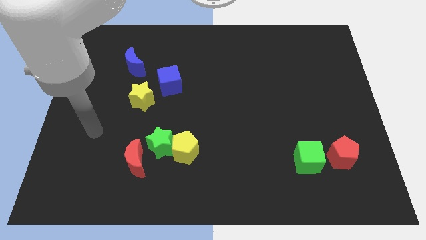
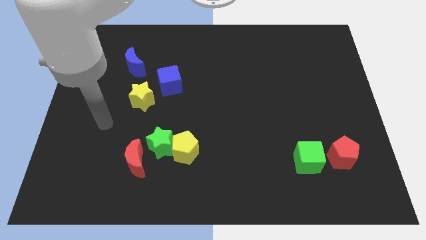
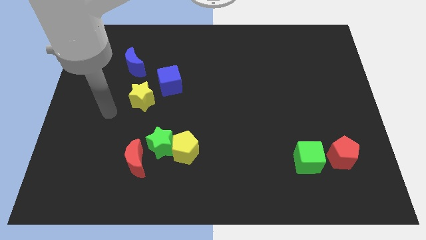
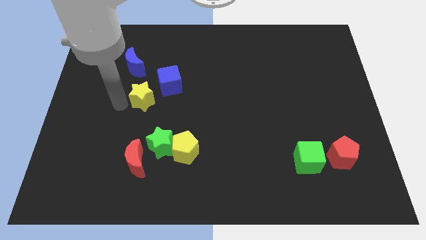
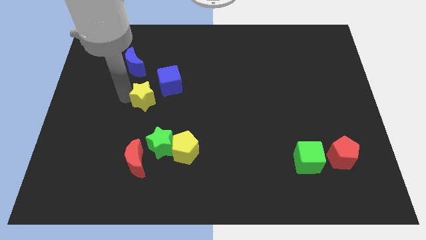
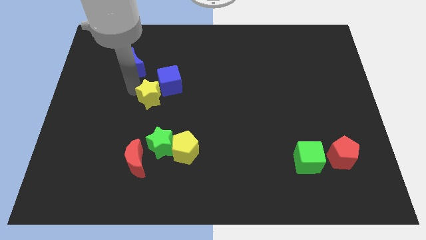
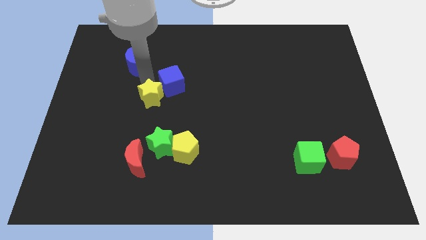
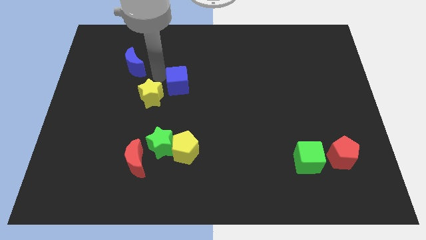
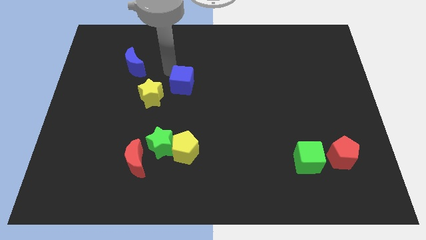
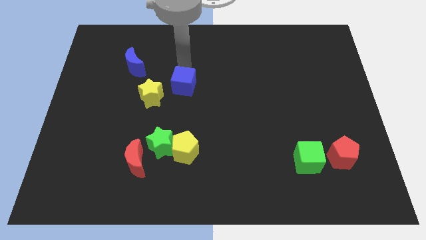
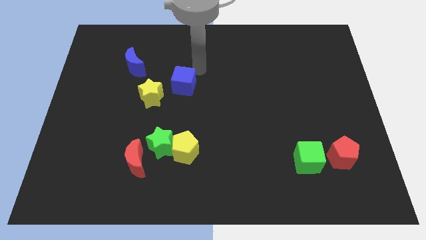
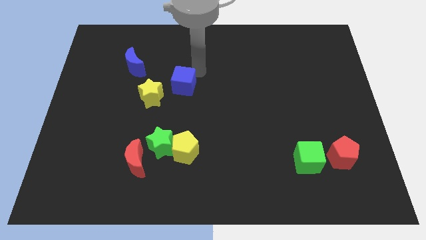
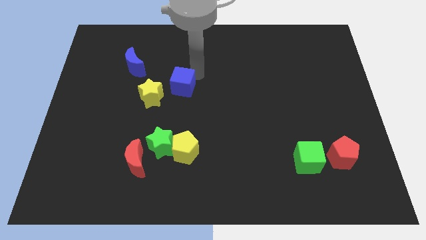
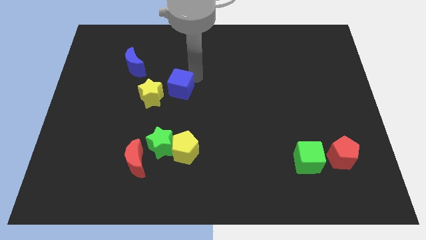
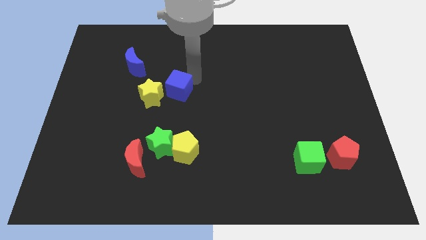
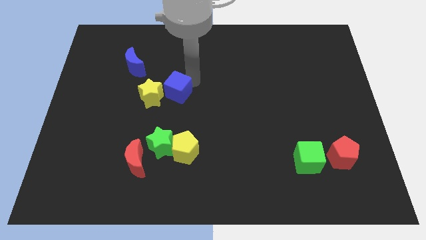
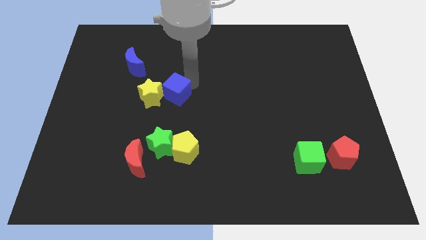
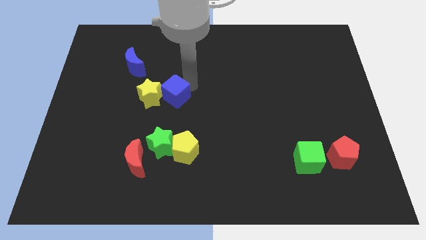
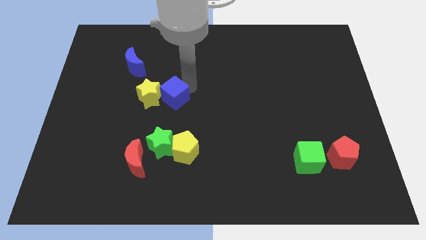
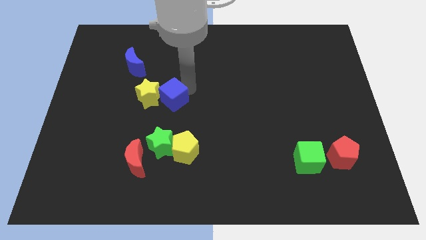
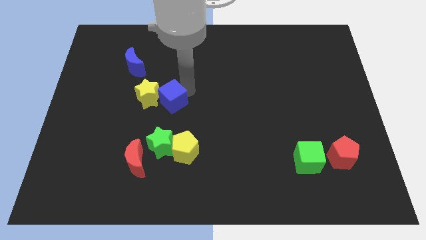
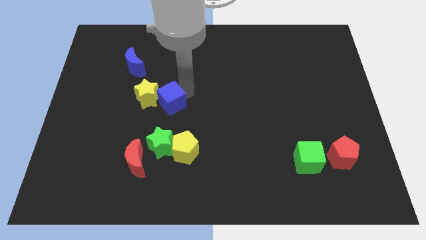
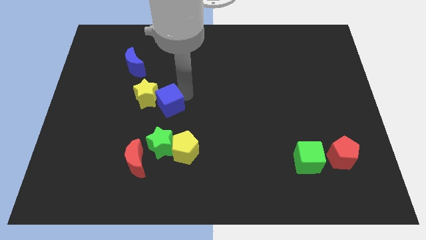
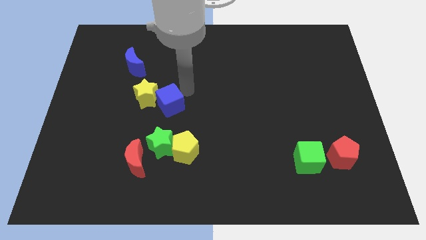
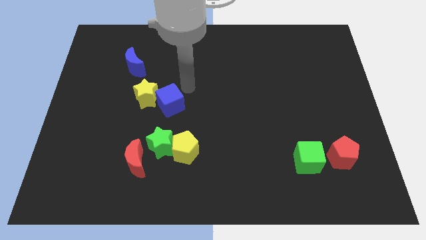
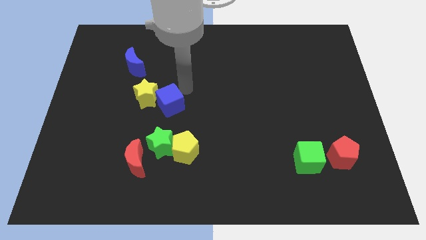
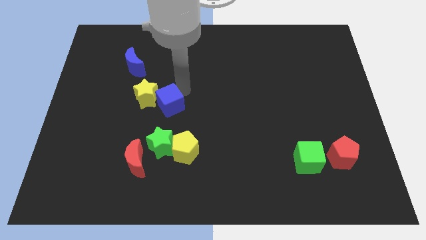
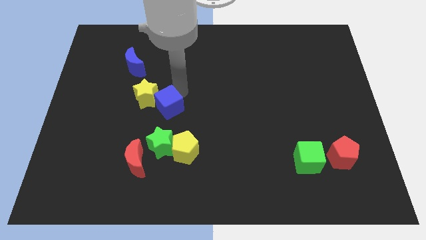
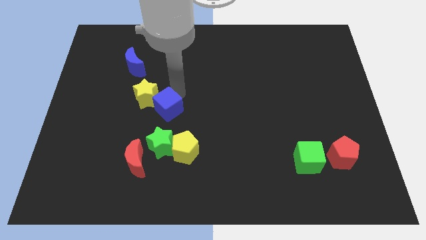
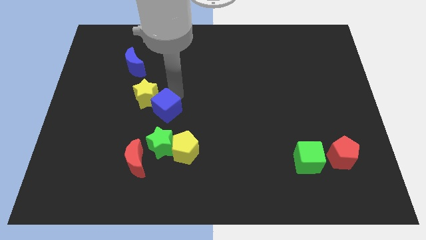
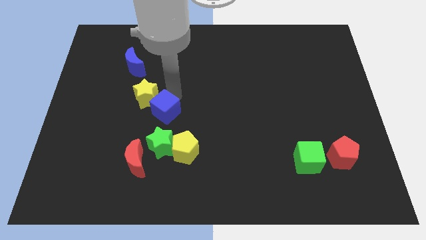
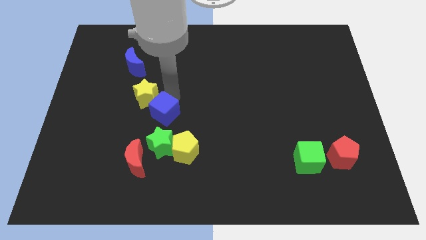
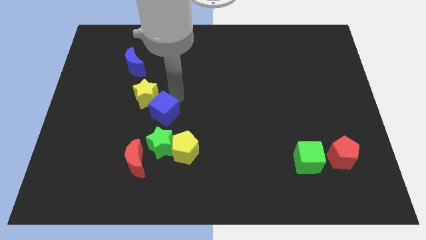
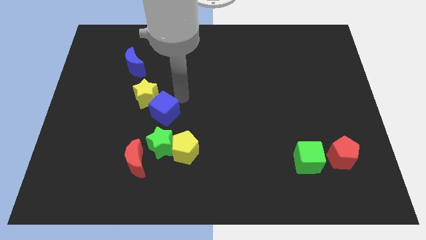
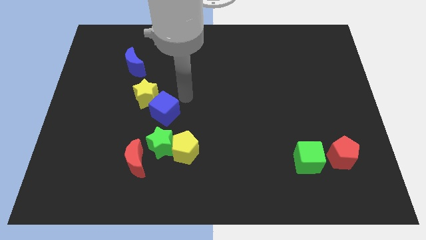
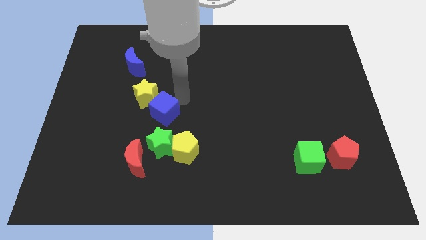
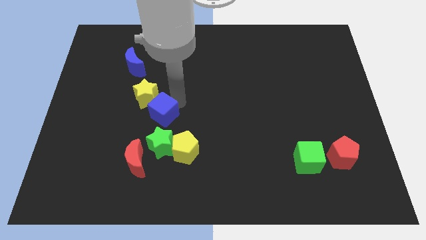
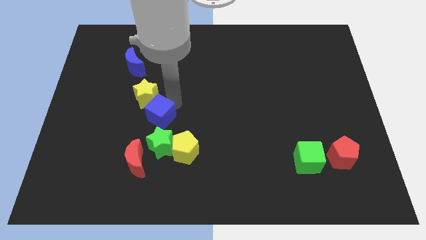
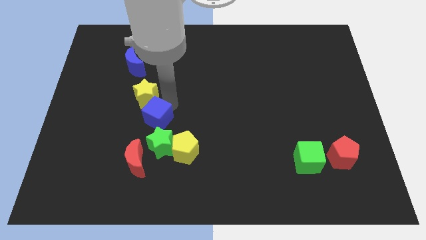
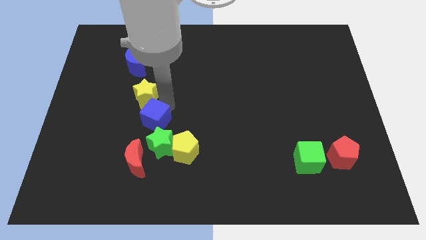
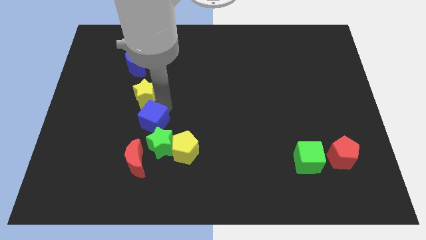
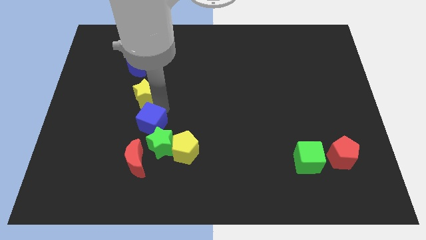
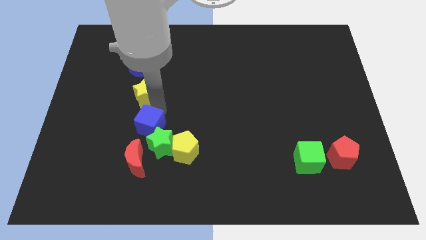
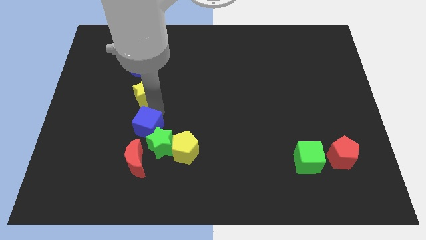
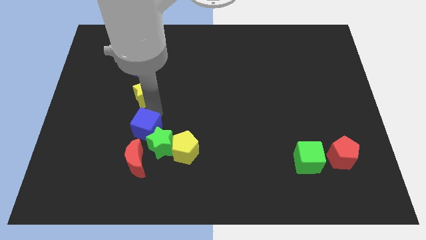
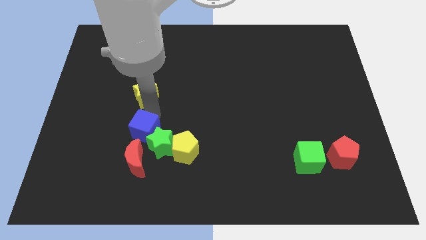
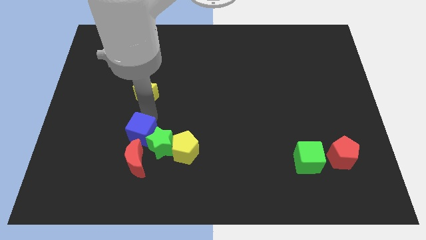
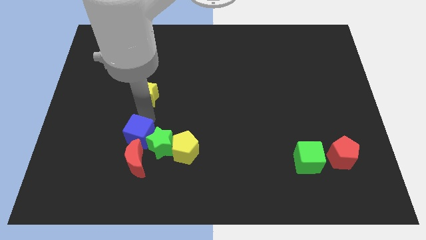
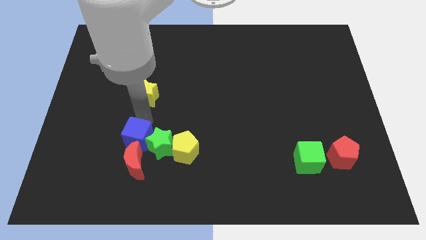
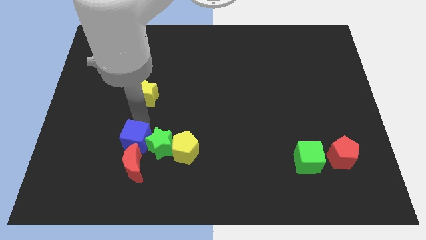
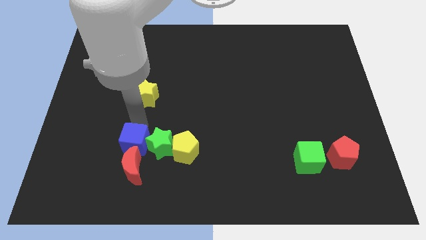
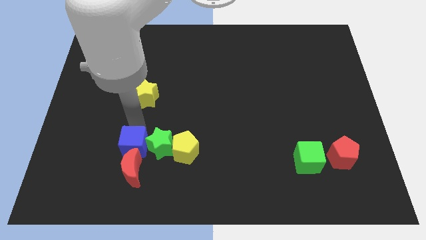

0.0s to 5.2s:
slide the blue cube to the red moon

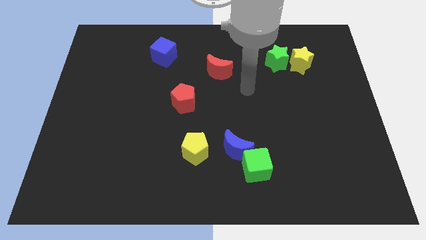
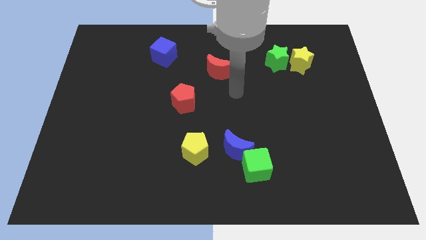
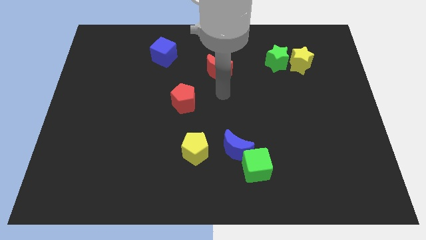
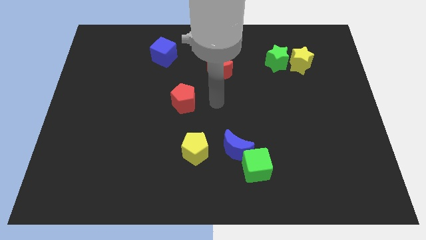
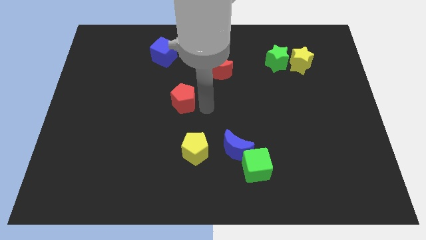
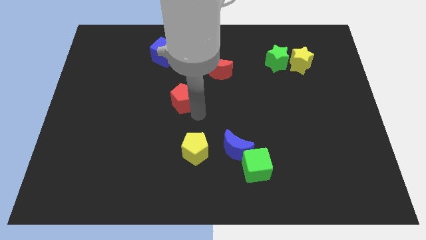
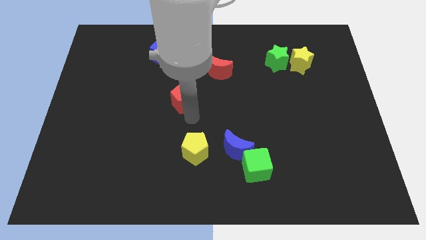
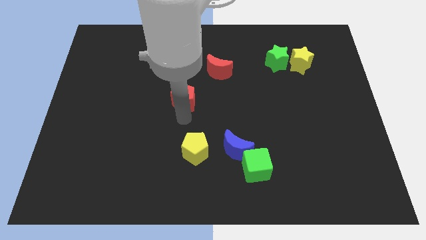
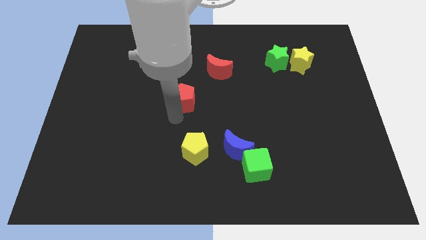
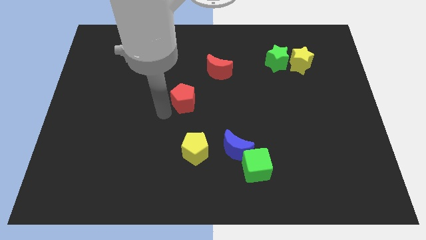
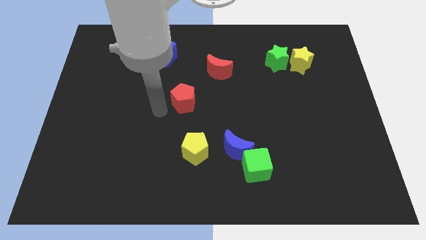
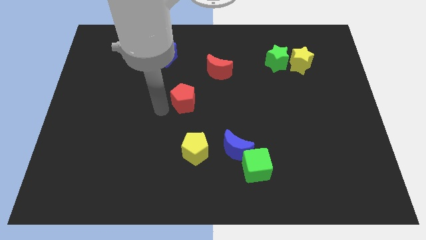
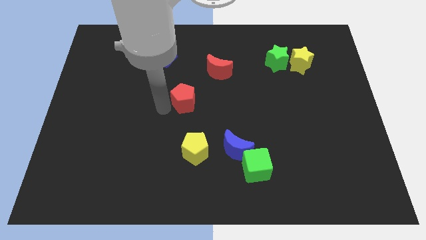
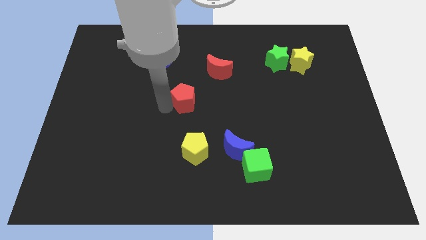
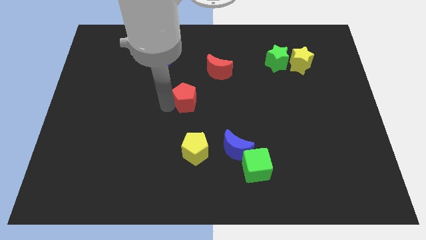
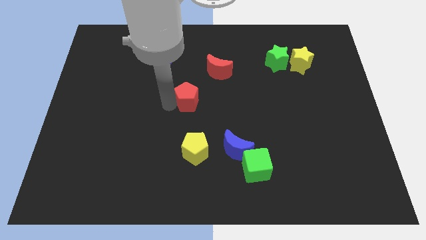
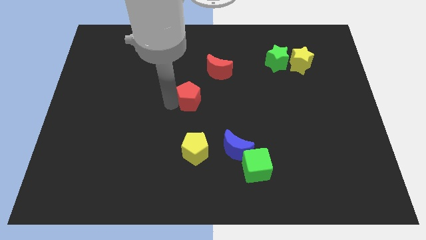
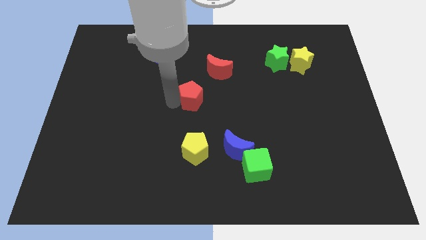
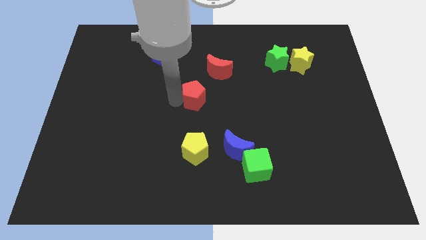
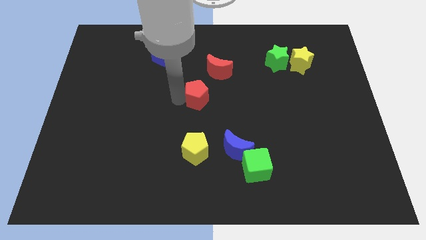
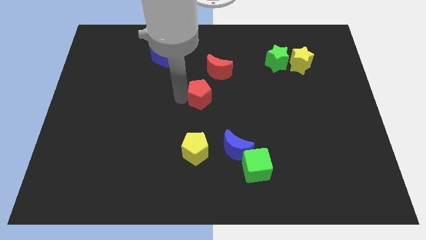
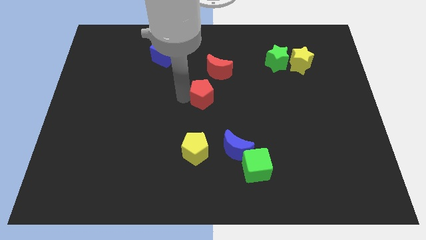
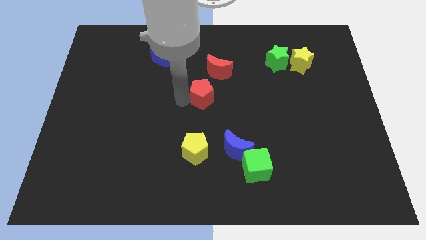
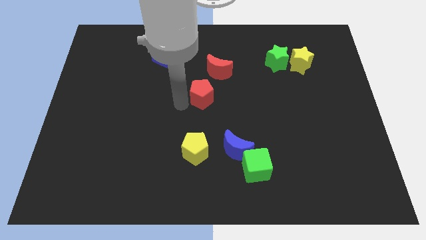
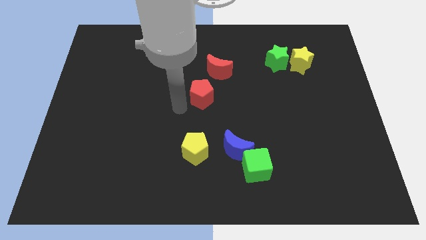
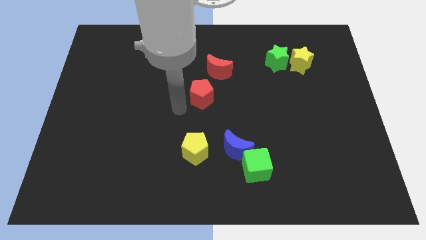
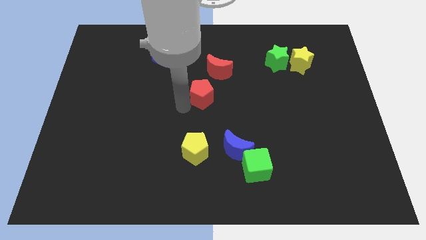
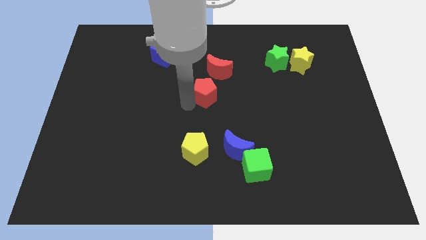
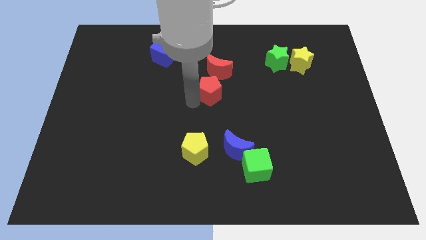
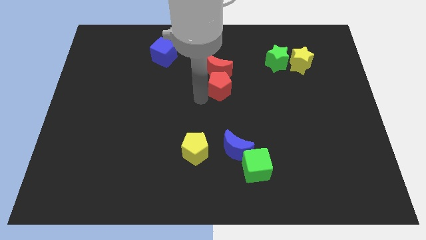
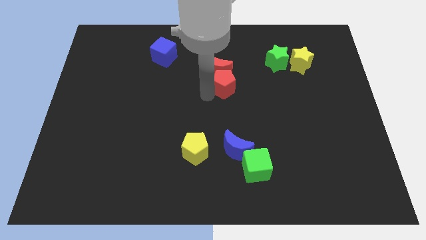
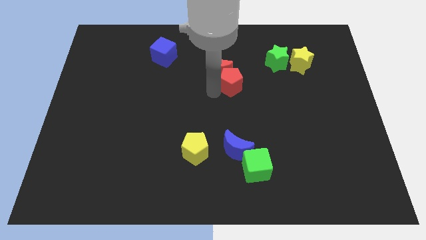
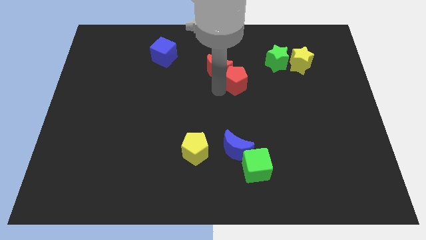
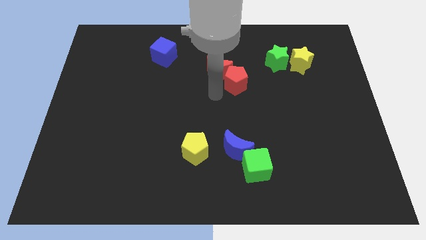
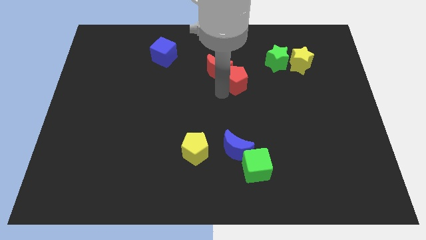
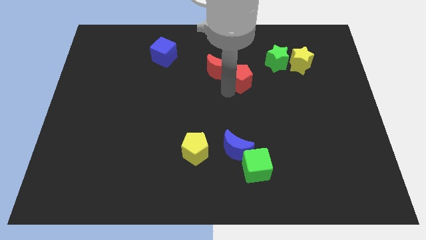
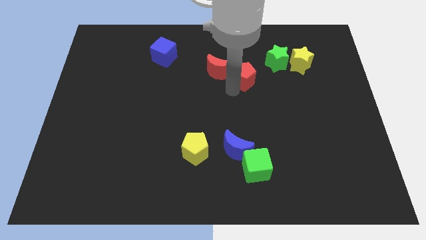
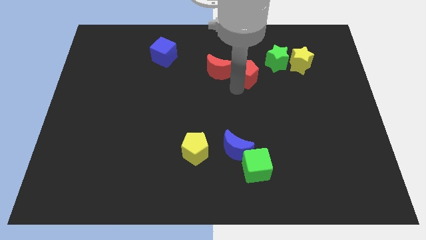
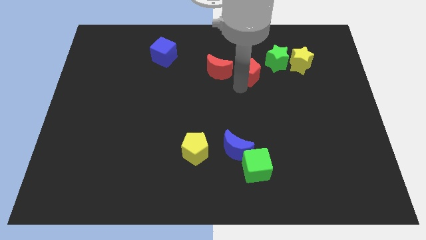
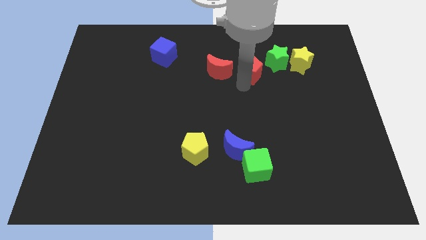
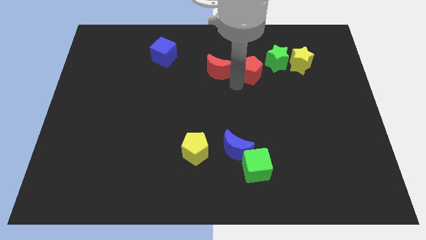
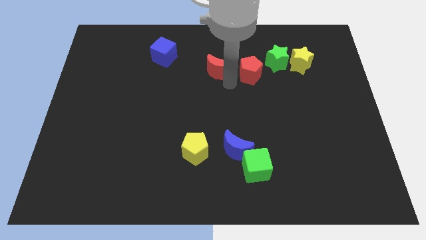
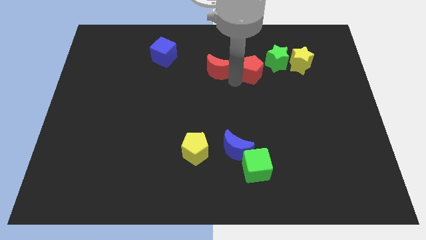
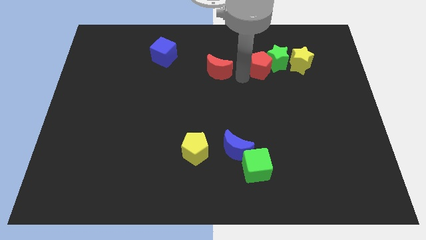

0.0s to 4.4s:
push the red pentagon close to the green star
